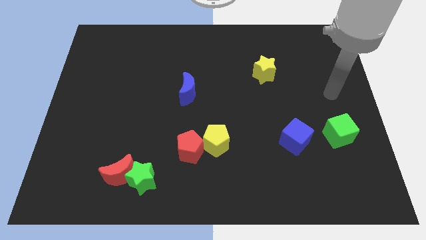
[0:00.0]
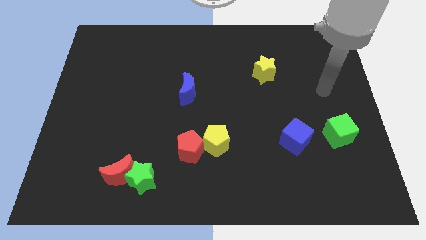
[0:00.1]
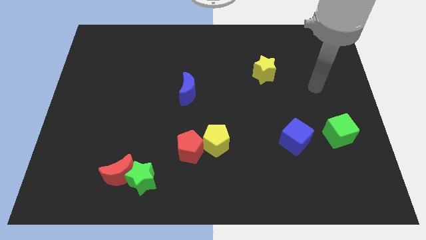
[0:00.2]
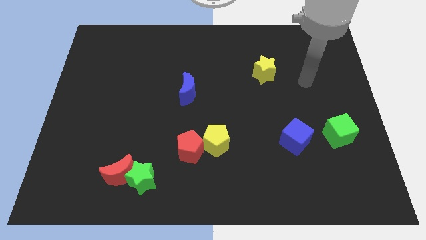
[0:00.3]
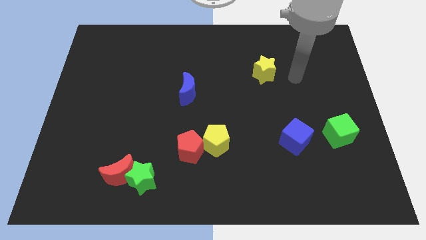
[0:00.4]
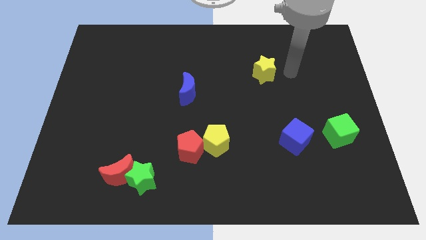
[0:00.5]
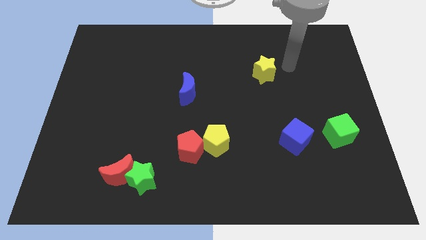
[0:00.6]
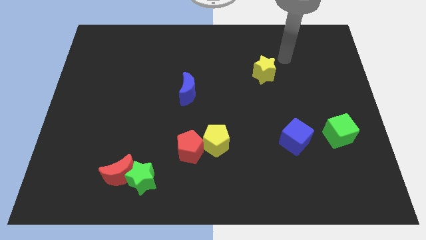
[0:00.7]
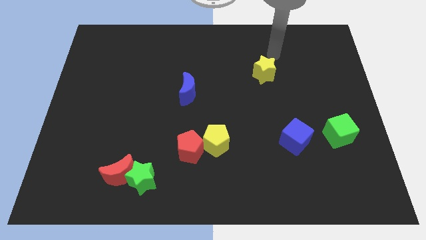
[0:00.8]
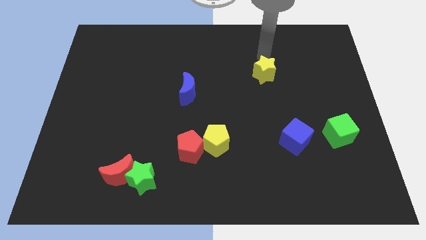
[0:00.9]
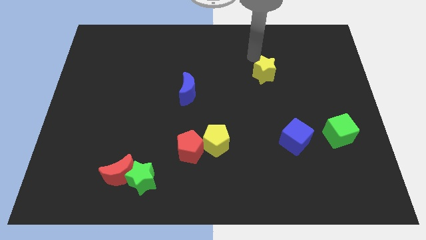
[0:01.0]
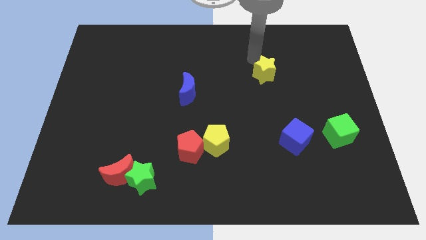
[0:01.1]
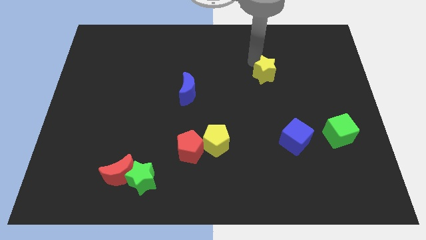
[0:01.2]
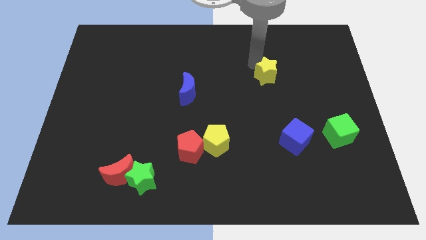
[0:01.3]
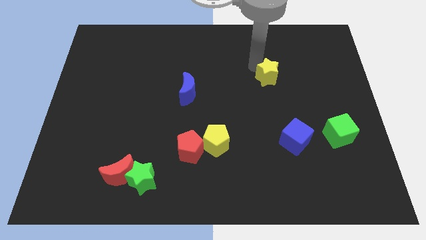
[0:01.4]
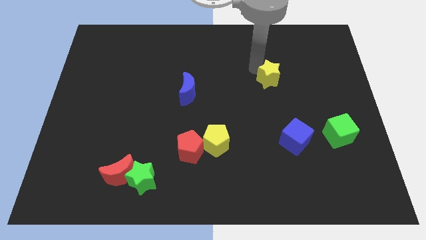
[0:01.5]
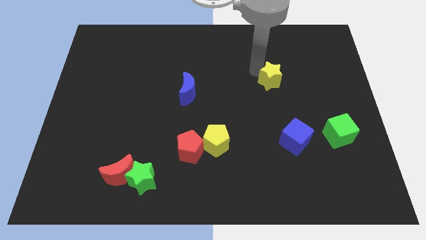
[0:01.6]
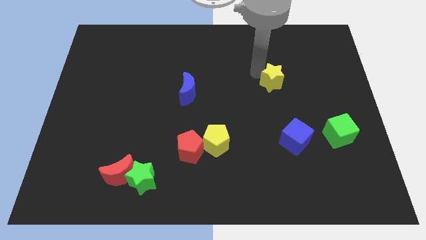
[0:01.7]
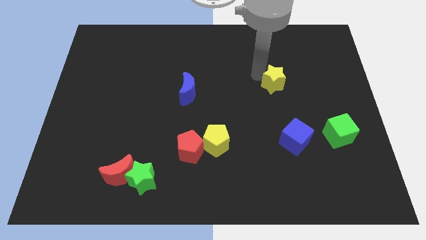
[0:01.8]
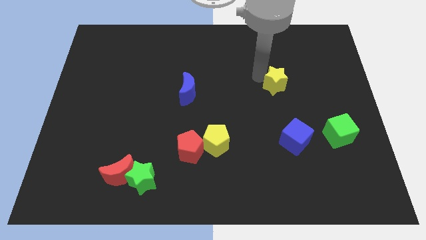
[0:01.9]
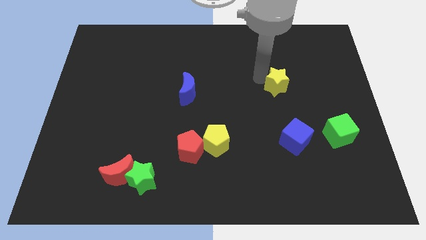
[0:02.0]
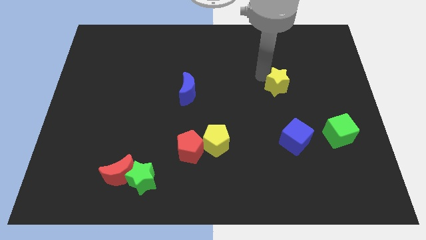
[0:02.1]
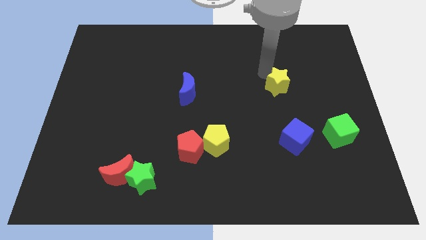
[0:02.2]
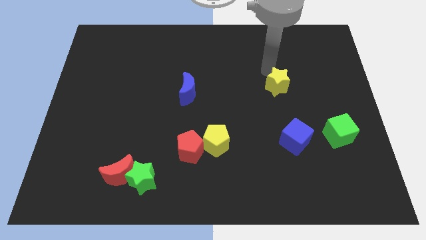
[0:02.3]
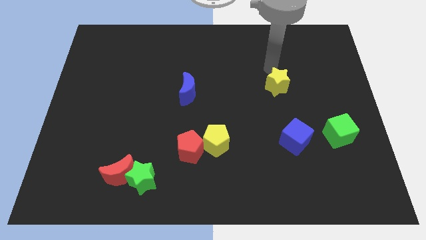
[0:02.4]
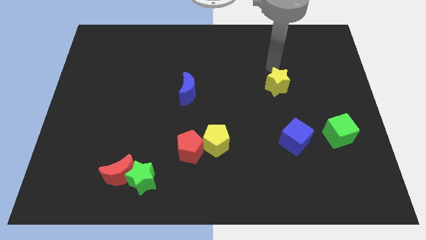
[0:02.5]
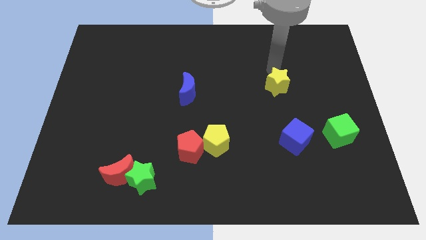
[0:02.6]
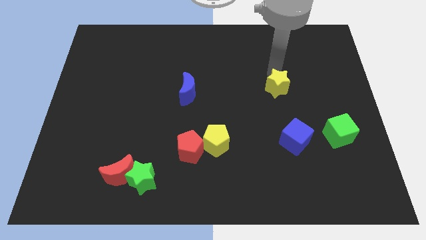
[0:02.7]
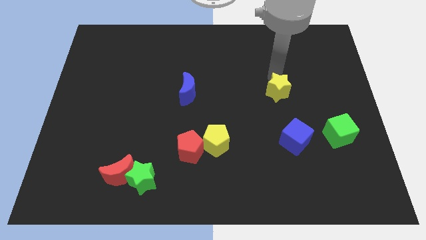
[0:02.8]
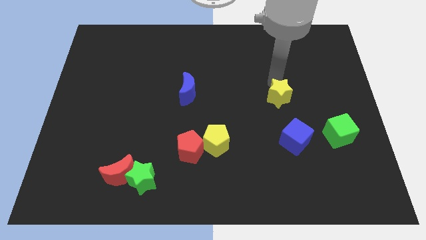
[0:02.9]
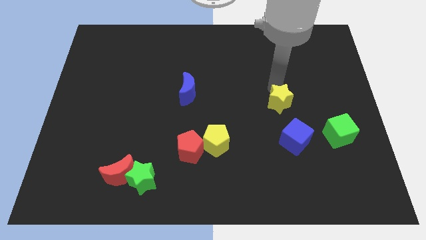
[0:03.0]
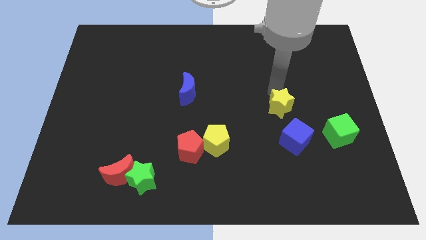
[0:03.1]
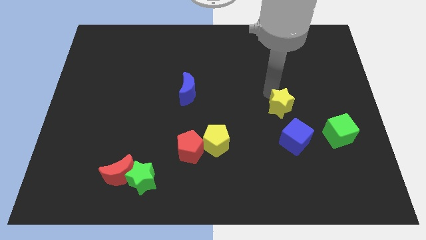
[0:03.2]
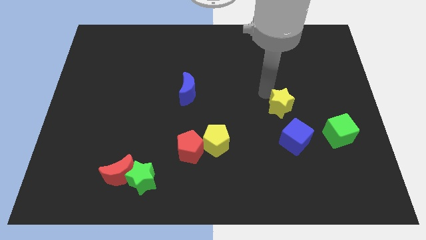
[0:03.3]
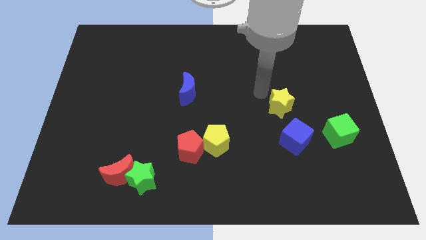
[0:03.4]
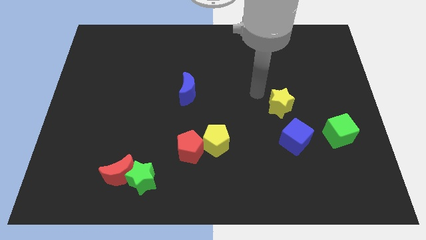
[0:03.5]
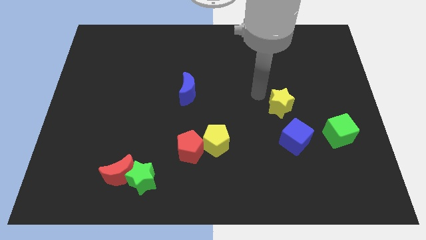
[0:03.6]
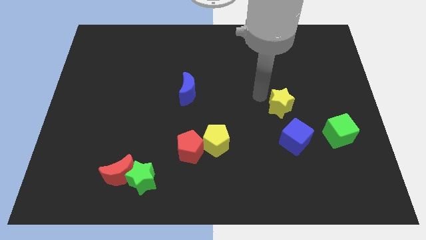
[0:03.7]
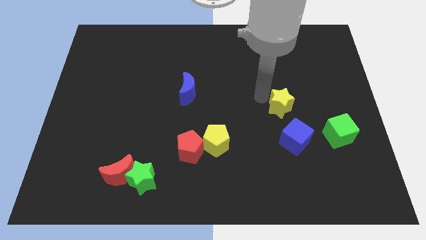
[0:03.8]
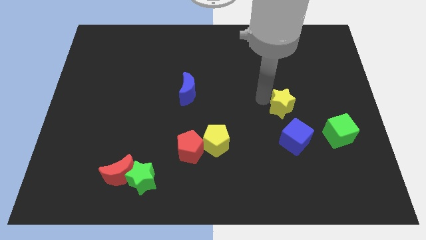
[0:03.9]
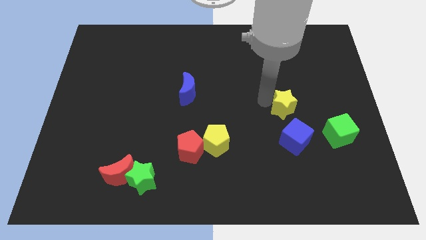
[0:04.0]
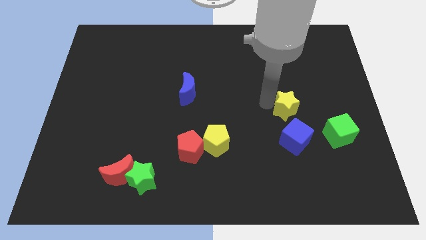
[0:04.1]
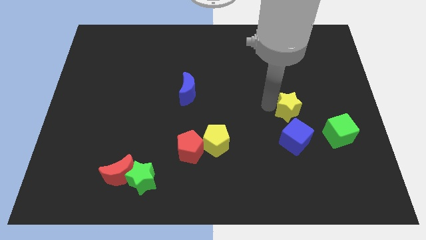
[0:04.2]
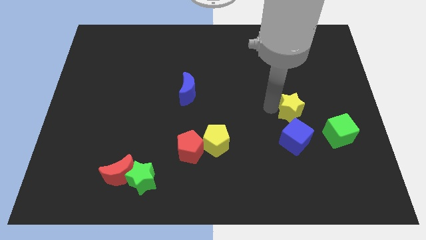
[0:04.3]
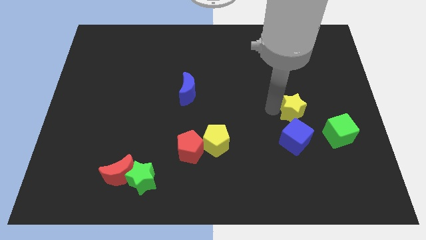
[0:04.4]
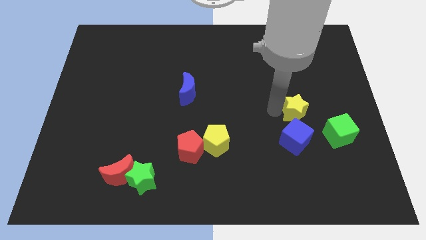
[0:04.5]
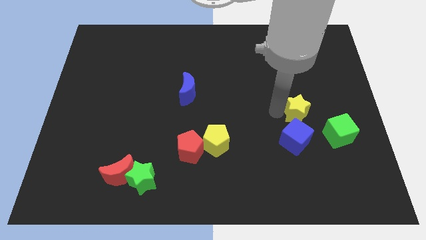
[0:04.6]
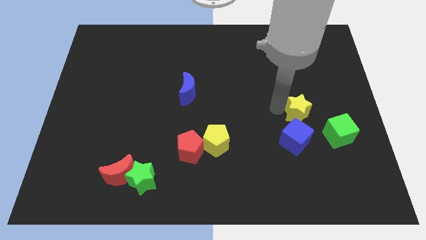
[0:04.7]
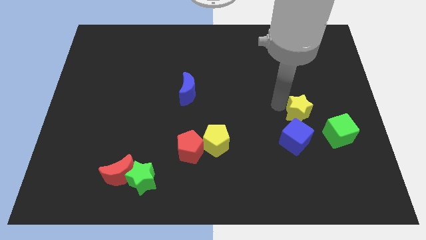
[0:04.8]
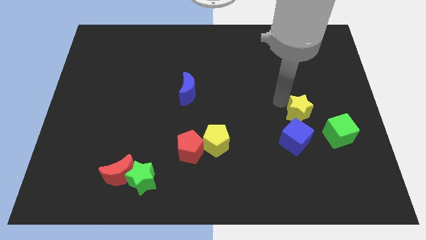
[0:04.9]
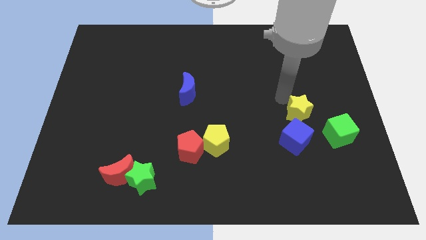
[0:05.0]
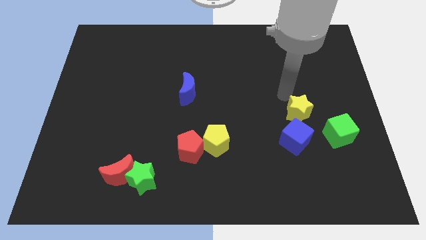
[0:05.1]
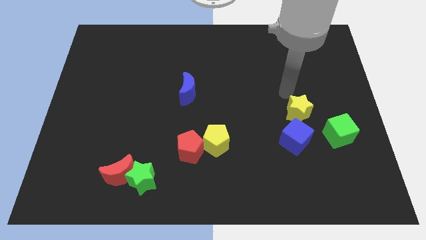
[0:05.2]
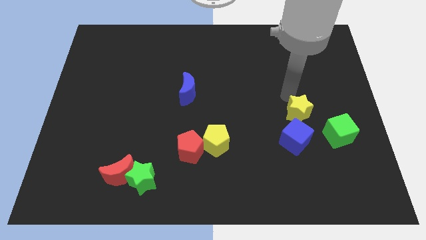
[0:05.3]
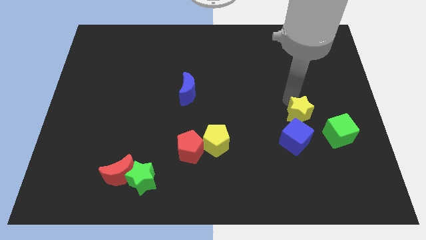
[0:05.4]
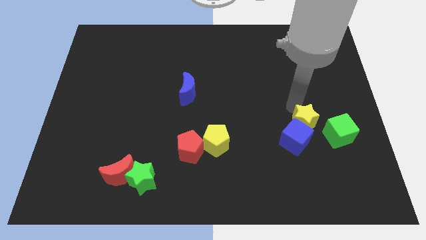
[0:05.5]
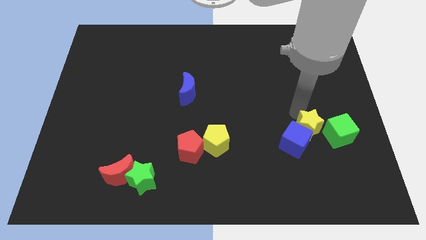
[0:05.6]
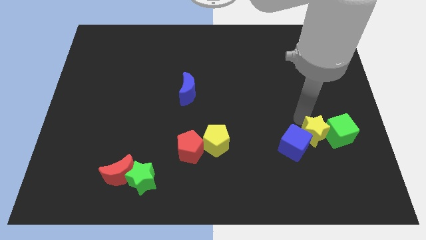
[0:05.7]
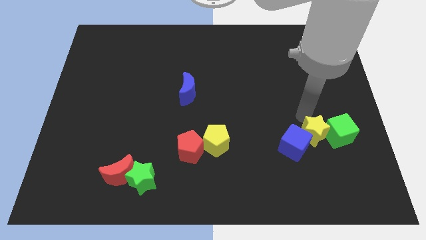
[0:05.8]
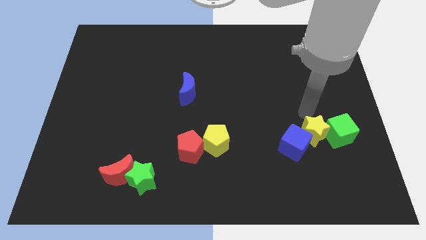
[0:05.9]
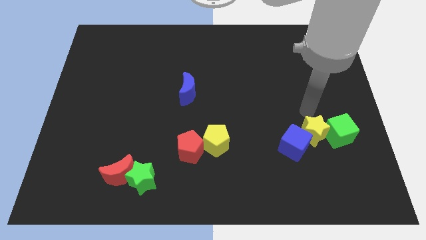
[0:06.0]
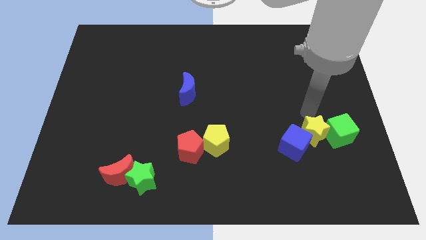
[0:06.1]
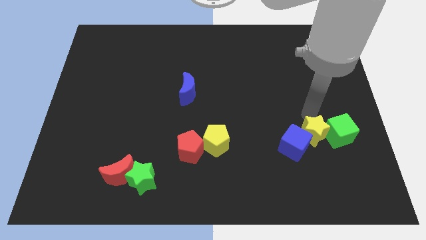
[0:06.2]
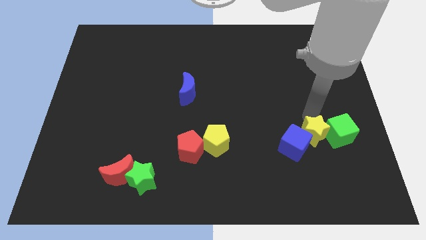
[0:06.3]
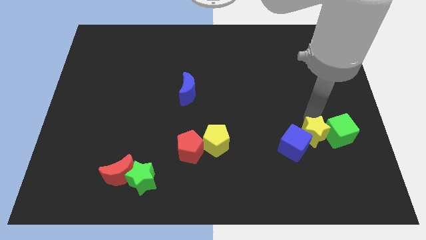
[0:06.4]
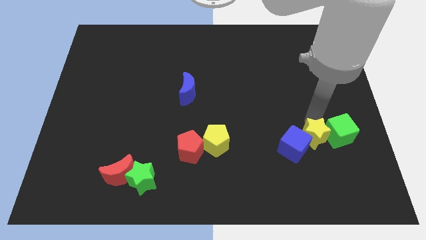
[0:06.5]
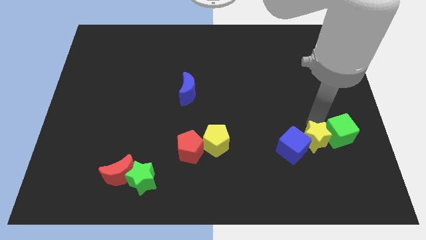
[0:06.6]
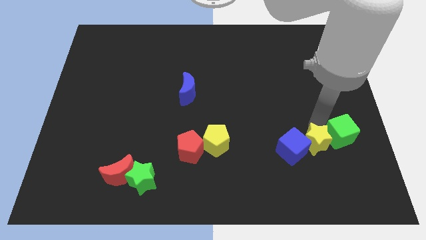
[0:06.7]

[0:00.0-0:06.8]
put the yellow star diagonally down and to the right of the blue cube
